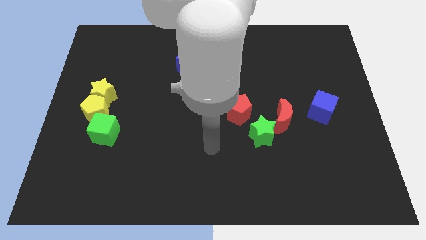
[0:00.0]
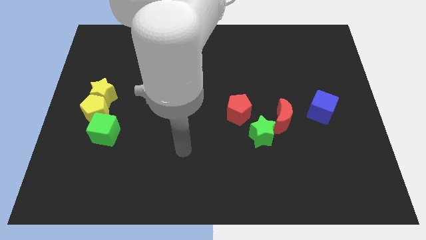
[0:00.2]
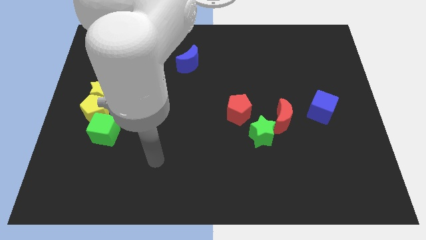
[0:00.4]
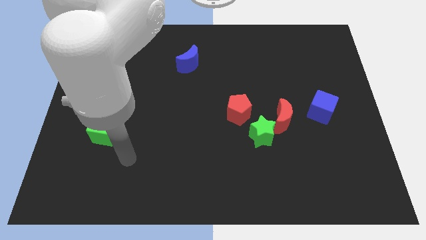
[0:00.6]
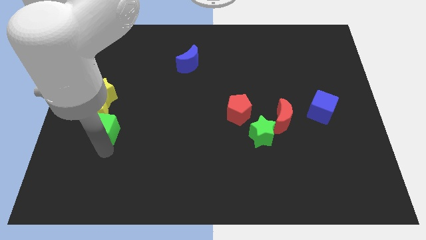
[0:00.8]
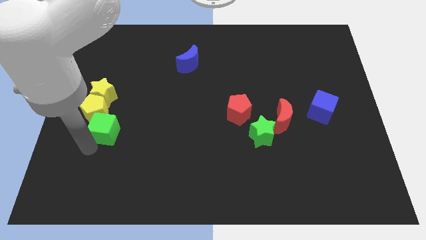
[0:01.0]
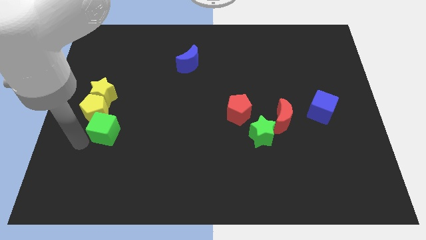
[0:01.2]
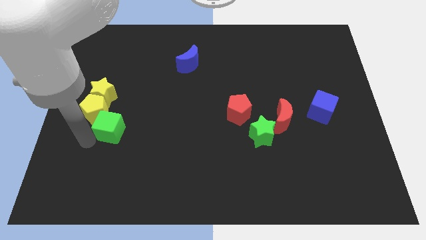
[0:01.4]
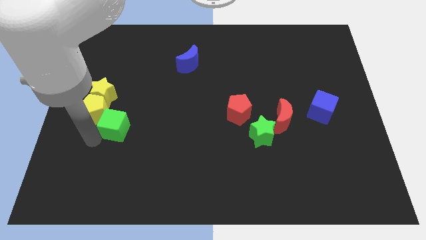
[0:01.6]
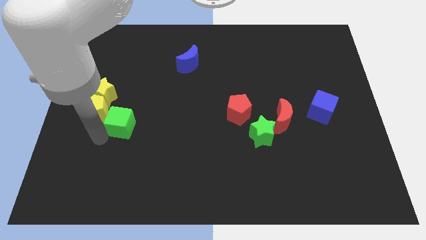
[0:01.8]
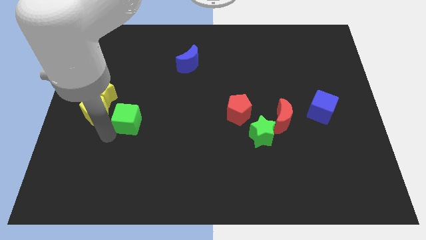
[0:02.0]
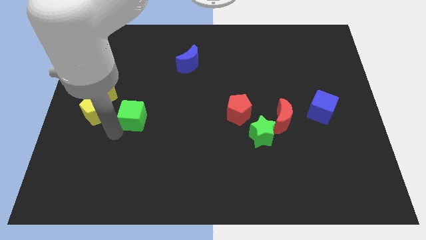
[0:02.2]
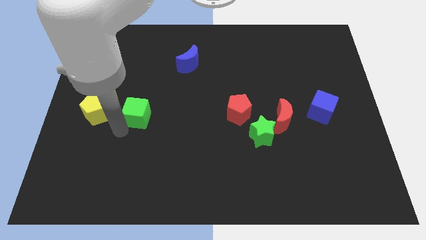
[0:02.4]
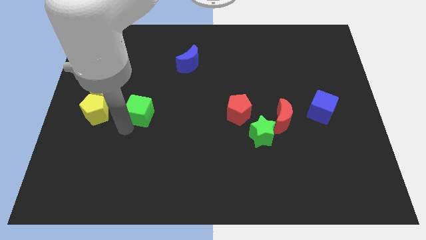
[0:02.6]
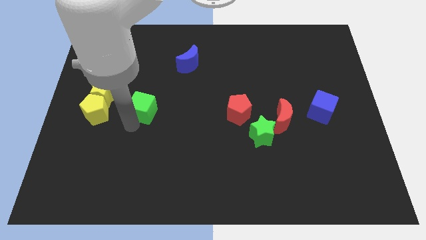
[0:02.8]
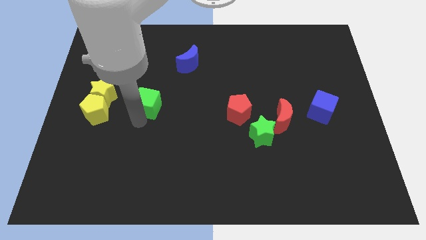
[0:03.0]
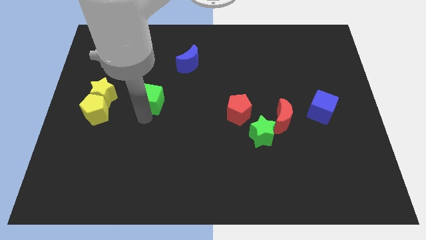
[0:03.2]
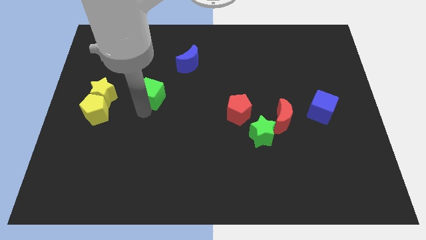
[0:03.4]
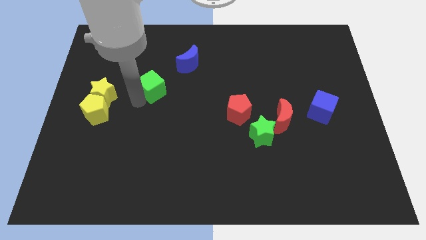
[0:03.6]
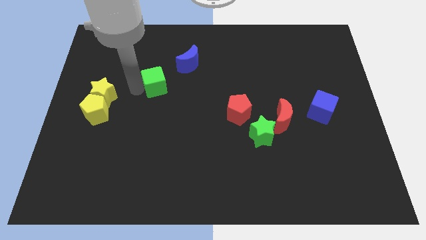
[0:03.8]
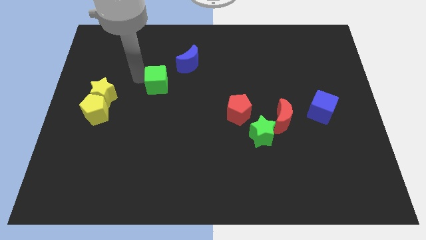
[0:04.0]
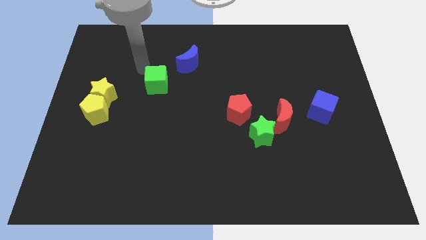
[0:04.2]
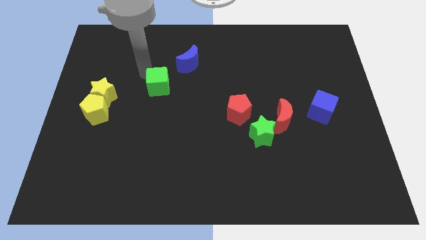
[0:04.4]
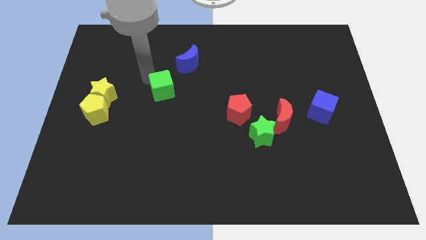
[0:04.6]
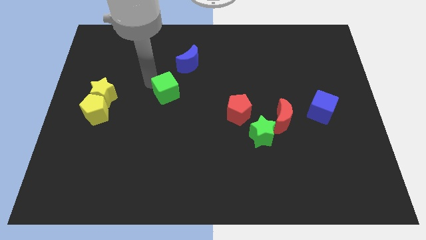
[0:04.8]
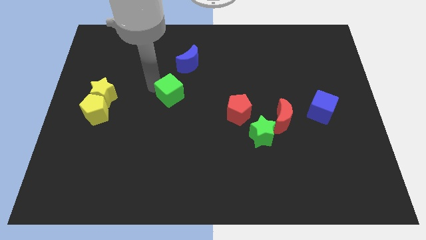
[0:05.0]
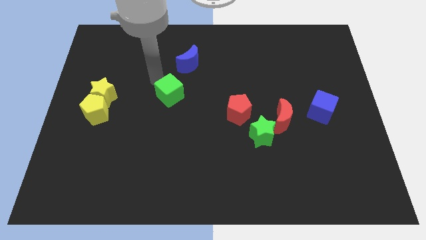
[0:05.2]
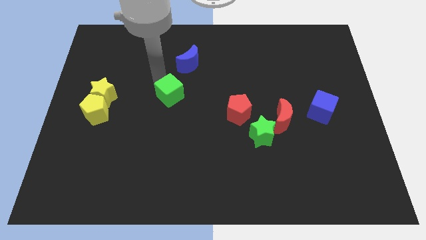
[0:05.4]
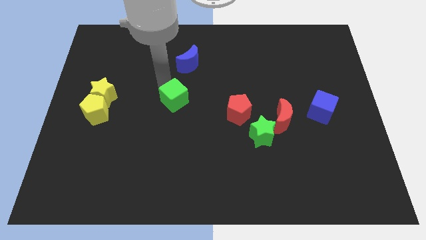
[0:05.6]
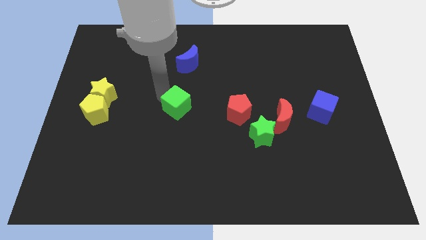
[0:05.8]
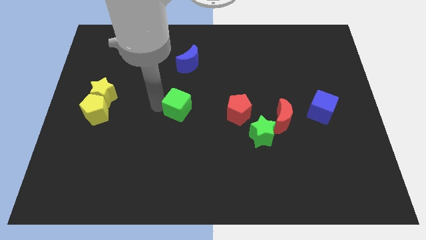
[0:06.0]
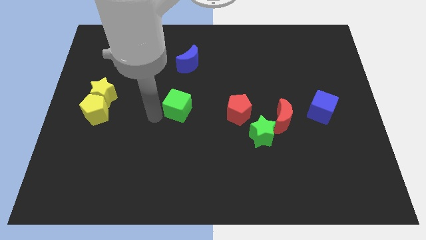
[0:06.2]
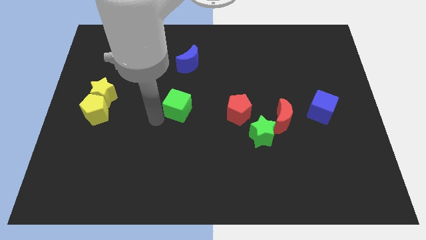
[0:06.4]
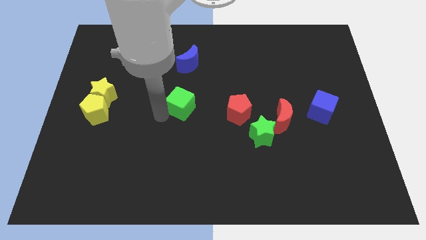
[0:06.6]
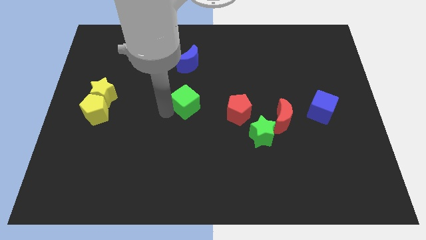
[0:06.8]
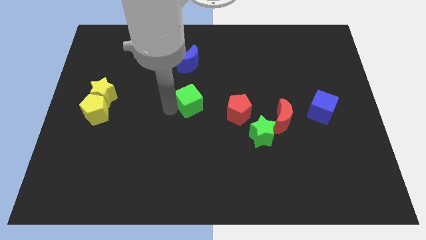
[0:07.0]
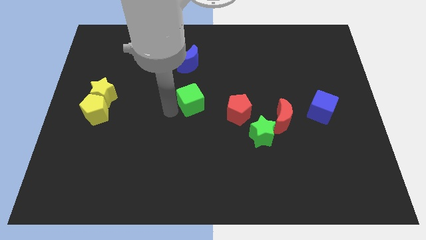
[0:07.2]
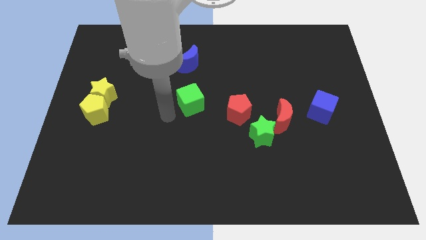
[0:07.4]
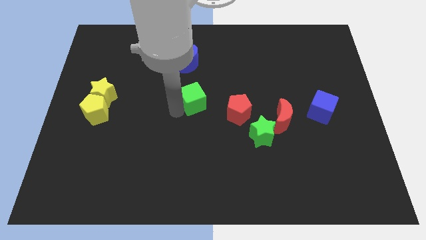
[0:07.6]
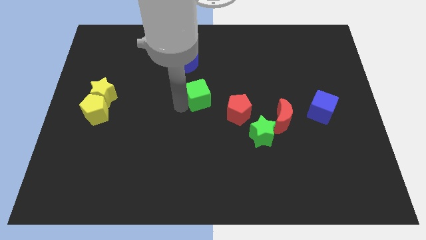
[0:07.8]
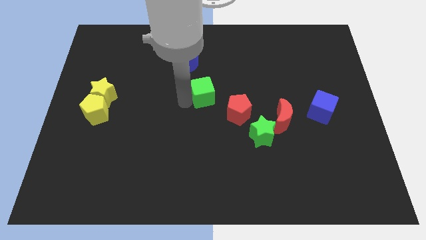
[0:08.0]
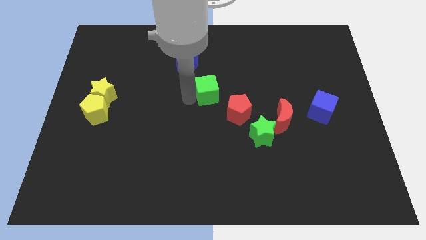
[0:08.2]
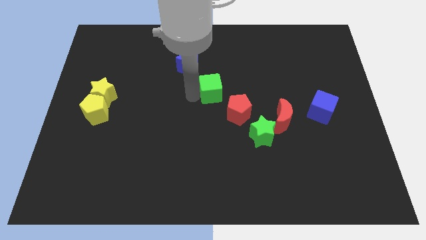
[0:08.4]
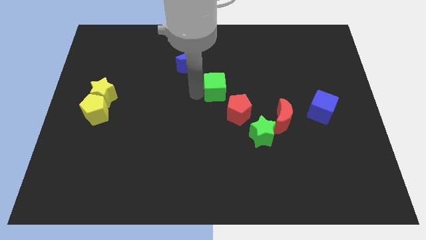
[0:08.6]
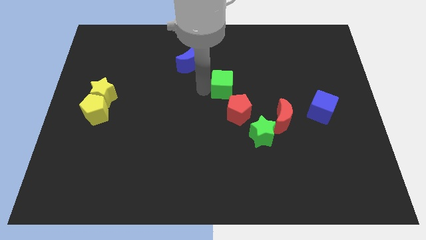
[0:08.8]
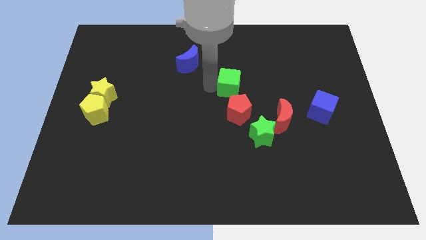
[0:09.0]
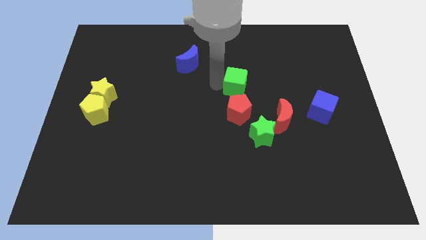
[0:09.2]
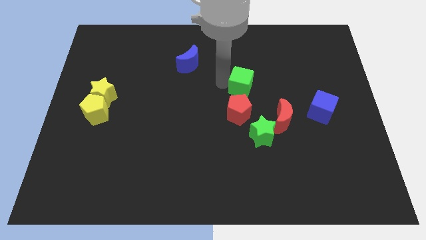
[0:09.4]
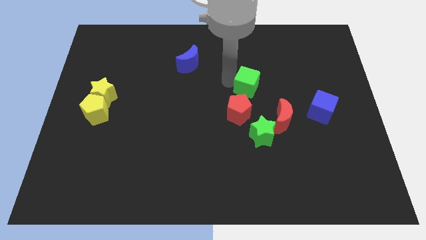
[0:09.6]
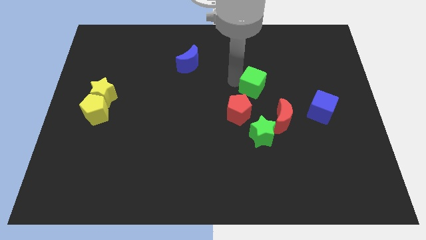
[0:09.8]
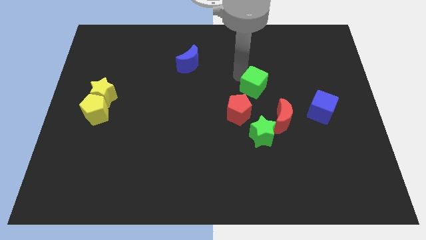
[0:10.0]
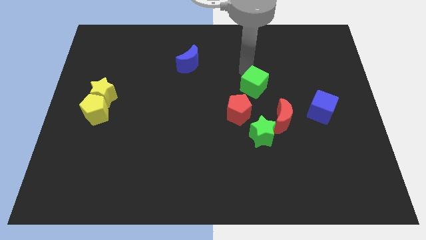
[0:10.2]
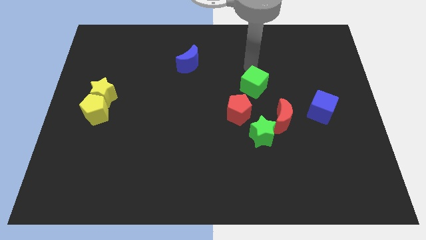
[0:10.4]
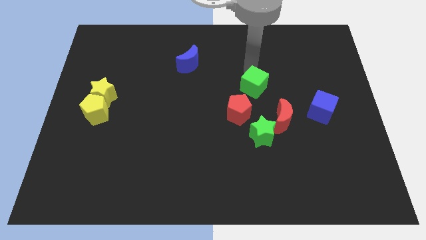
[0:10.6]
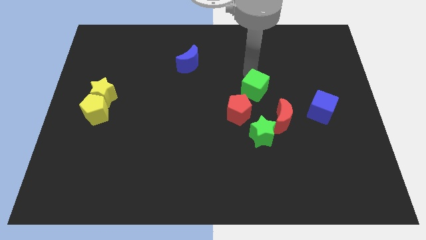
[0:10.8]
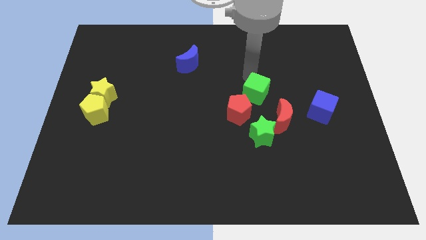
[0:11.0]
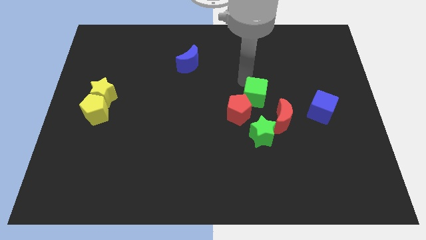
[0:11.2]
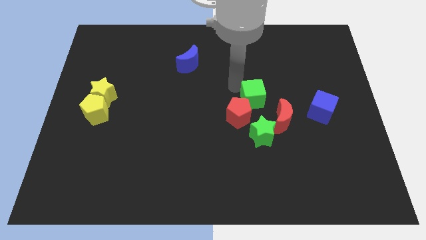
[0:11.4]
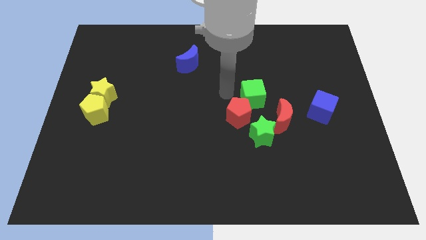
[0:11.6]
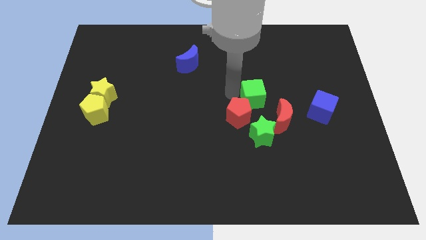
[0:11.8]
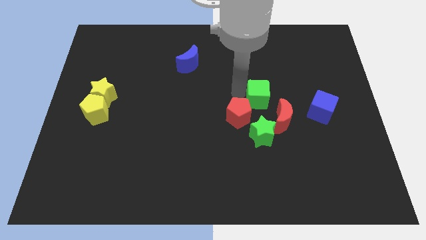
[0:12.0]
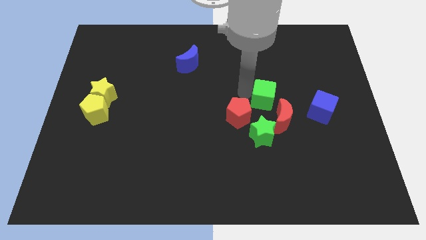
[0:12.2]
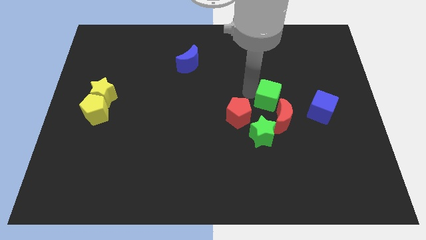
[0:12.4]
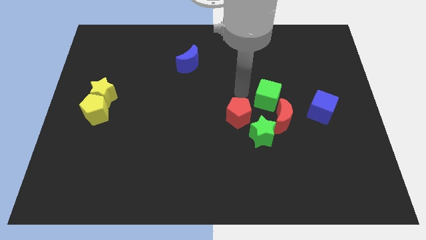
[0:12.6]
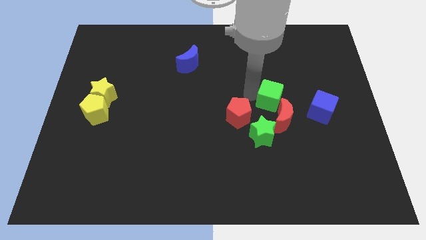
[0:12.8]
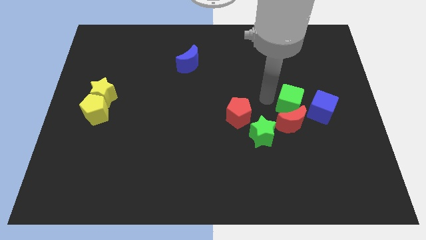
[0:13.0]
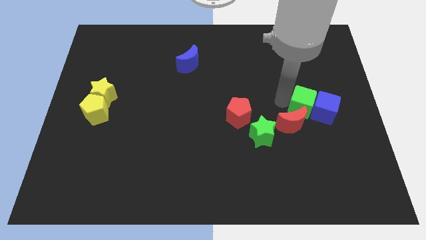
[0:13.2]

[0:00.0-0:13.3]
push the green cube to the blue cube

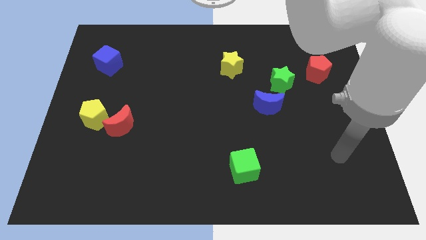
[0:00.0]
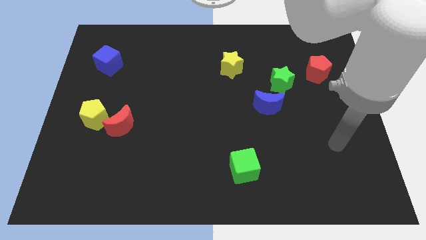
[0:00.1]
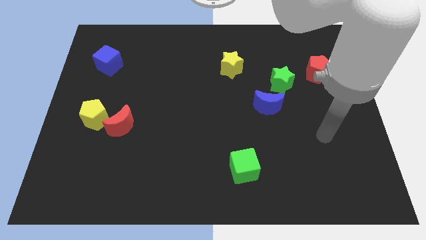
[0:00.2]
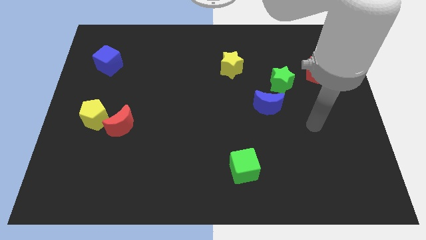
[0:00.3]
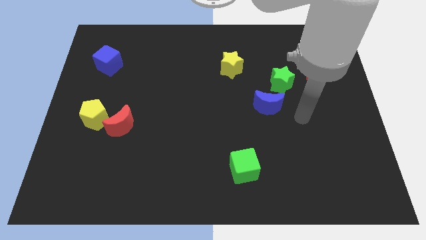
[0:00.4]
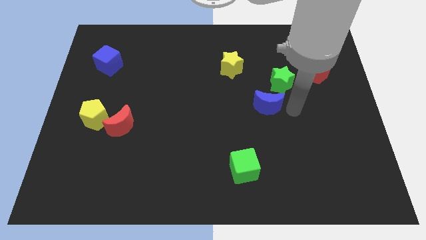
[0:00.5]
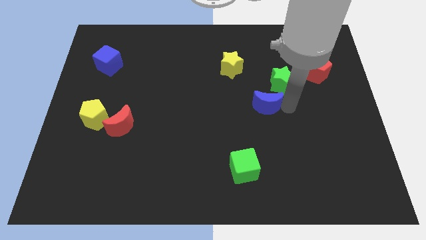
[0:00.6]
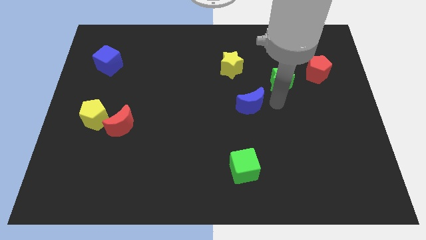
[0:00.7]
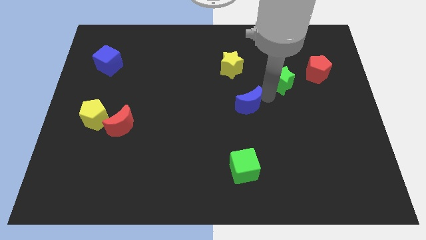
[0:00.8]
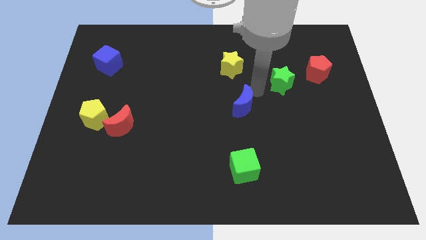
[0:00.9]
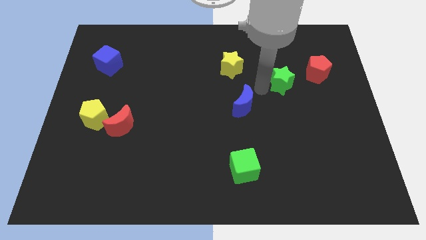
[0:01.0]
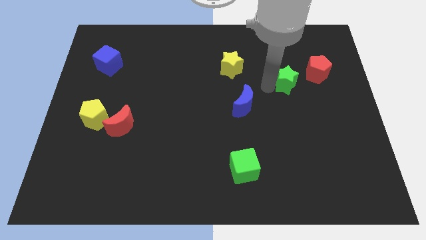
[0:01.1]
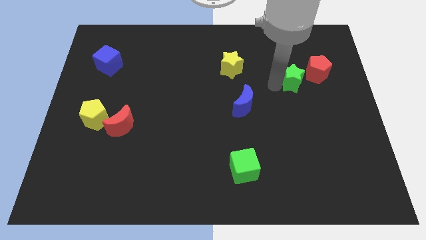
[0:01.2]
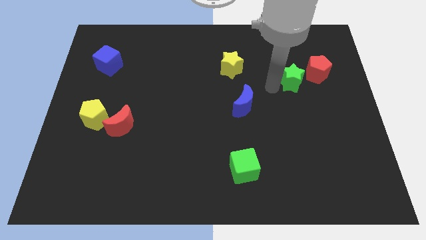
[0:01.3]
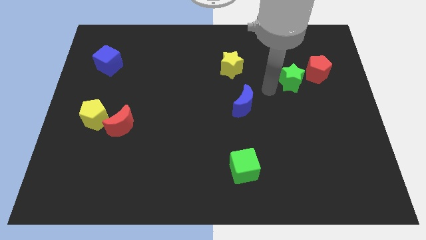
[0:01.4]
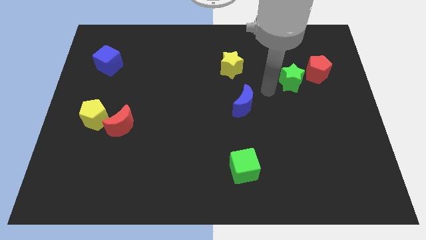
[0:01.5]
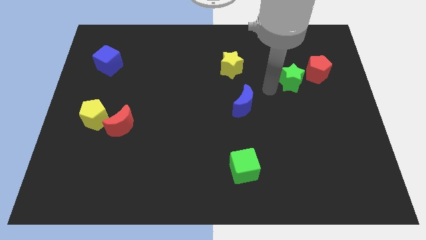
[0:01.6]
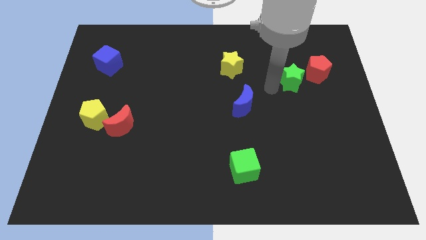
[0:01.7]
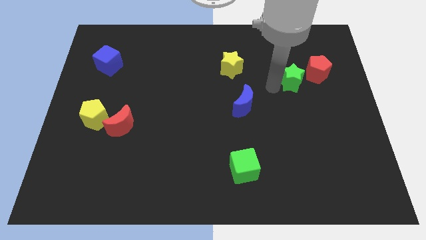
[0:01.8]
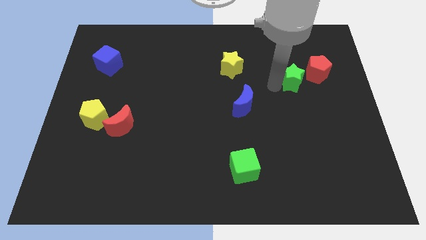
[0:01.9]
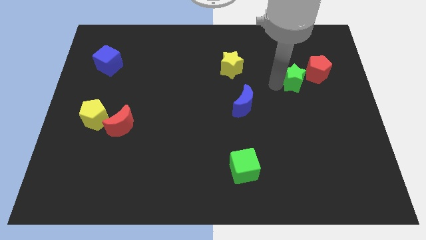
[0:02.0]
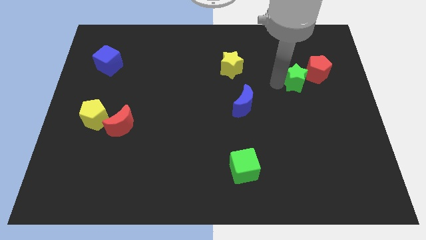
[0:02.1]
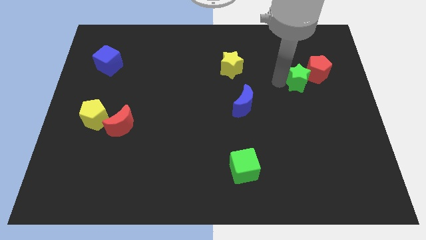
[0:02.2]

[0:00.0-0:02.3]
slide the green star towards the red pentagon
